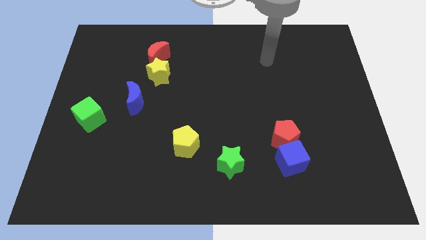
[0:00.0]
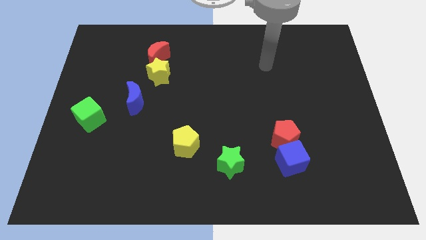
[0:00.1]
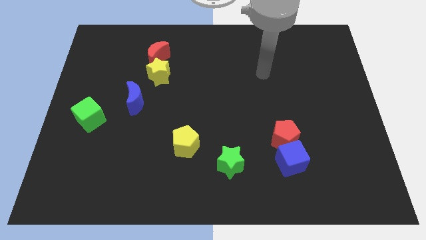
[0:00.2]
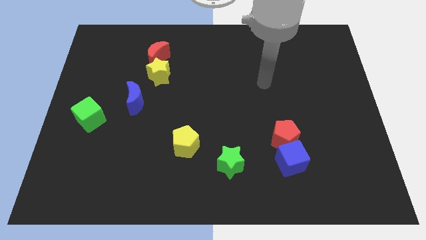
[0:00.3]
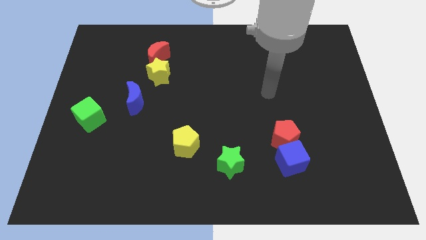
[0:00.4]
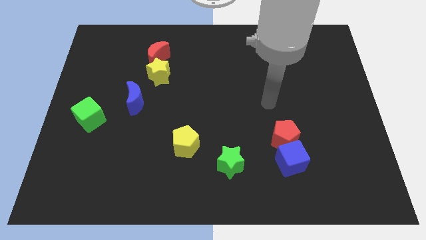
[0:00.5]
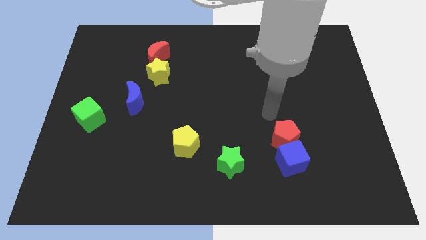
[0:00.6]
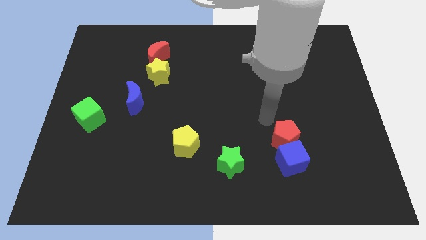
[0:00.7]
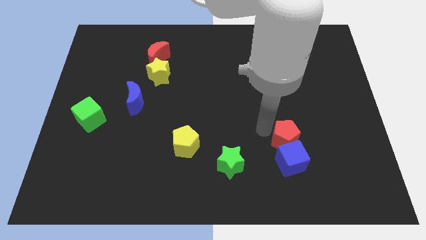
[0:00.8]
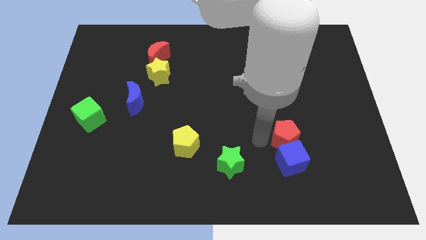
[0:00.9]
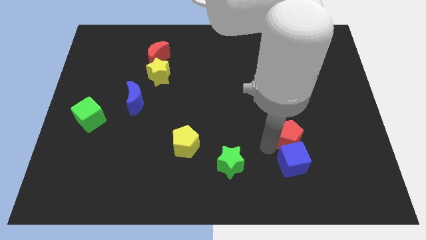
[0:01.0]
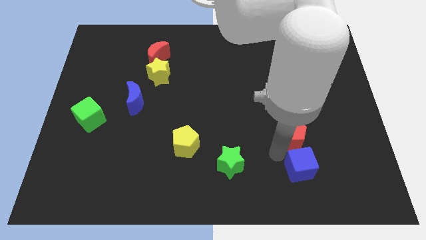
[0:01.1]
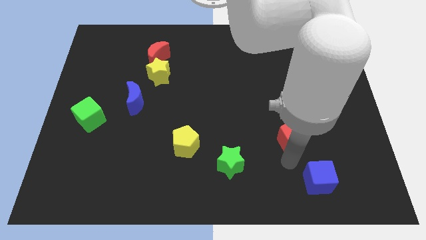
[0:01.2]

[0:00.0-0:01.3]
move the red pentagon away from the blue cube

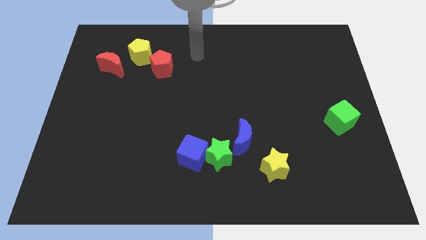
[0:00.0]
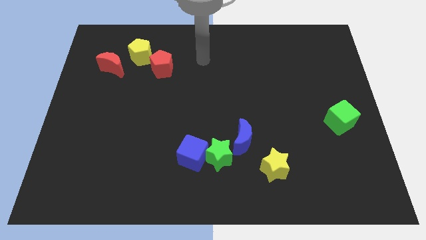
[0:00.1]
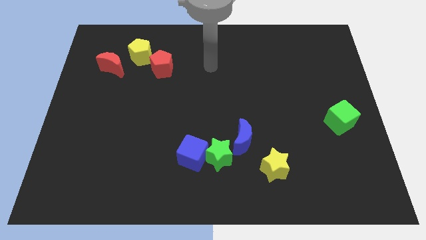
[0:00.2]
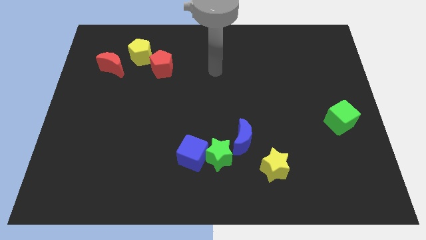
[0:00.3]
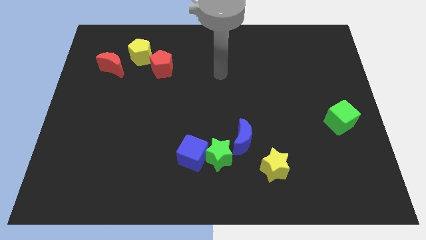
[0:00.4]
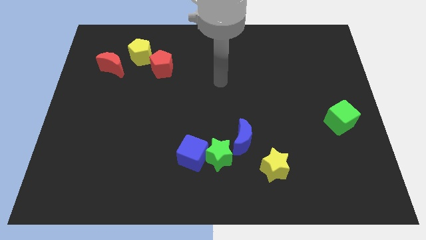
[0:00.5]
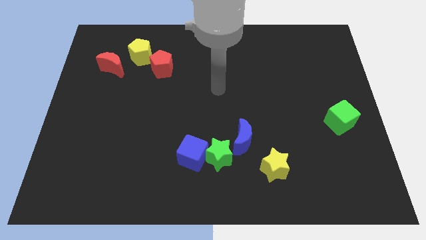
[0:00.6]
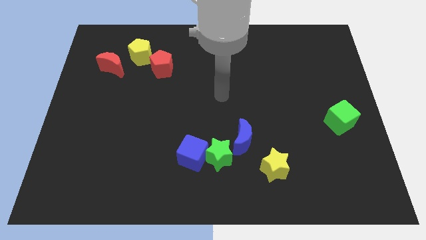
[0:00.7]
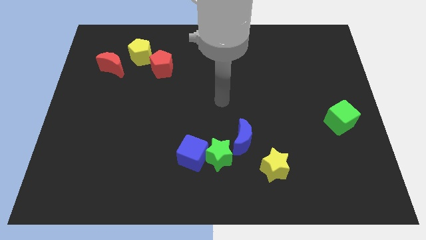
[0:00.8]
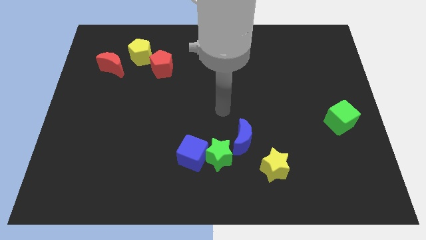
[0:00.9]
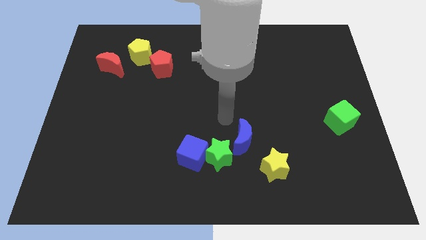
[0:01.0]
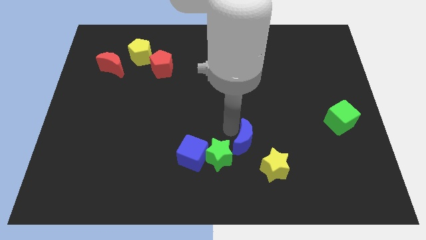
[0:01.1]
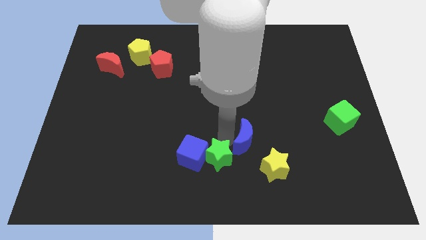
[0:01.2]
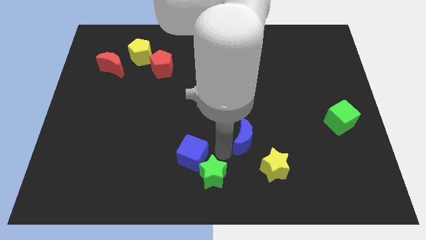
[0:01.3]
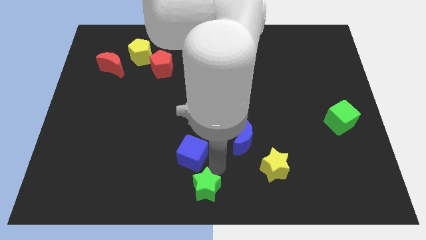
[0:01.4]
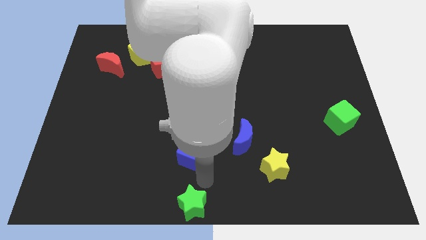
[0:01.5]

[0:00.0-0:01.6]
separate the blue cube from the green star

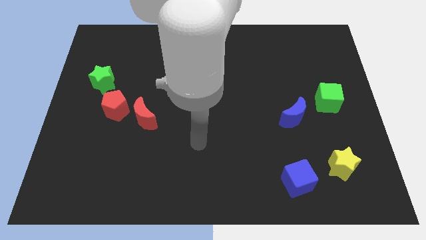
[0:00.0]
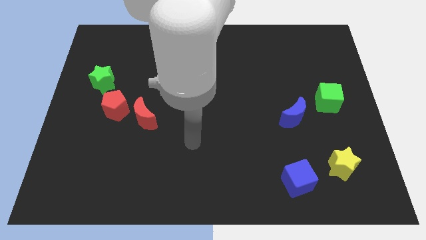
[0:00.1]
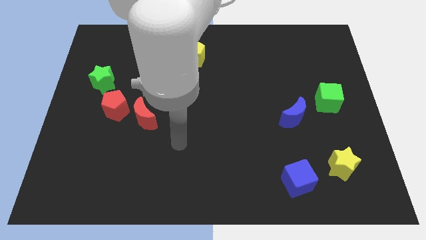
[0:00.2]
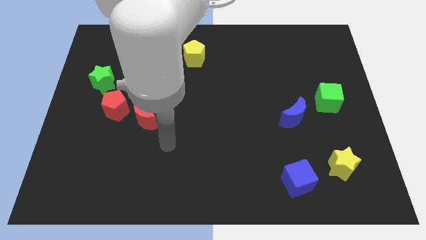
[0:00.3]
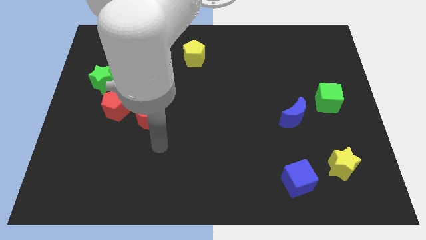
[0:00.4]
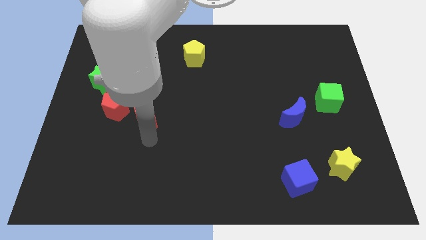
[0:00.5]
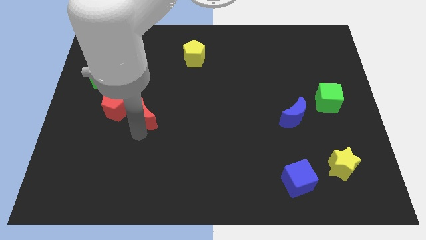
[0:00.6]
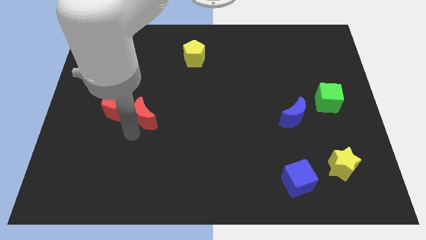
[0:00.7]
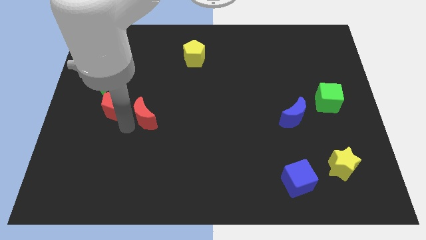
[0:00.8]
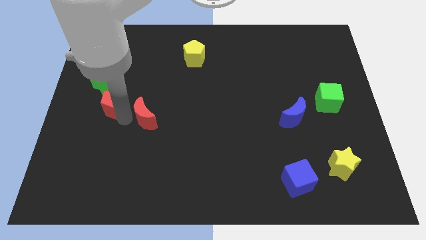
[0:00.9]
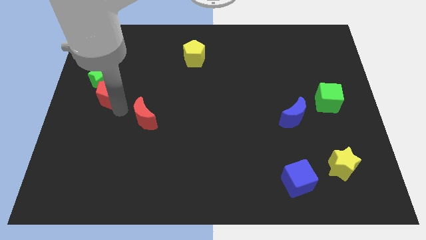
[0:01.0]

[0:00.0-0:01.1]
pull the red moon apart from the red pentagon

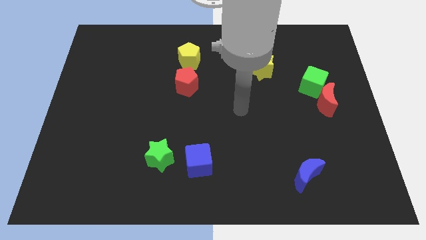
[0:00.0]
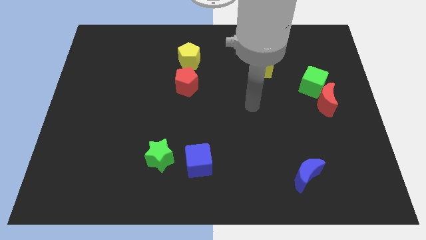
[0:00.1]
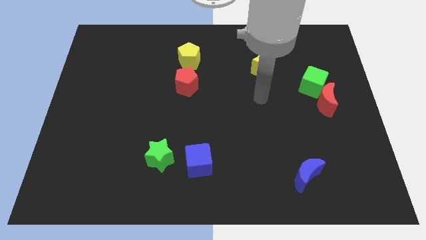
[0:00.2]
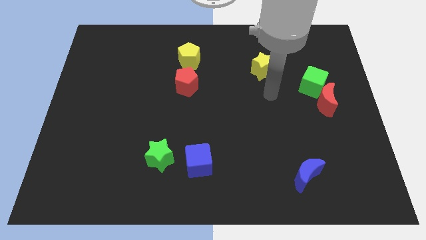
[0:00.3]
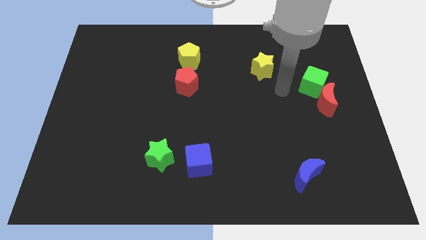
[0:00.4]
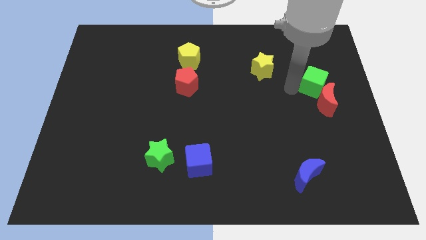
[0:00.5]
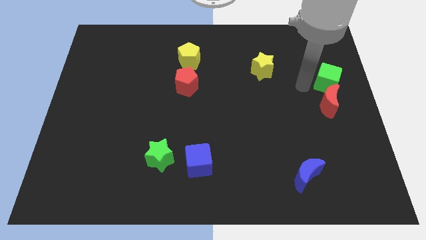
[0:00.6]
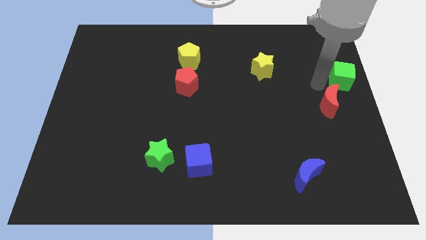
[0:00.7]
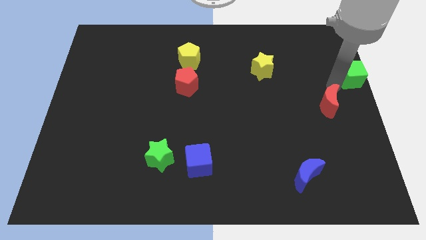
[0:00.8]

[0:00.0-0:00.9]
separate the red moon from the green cube

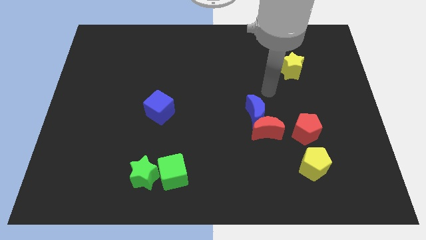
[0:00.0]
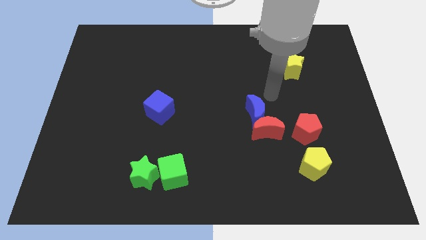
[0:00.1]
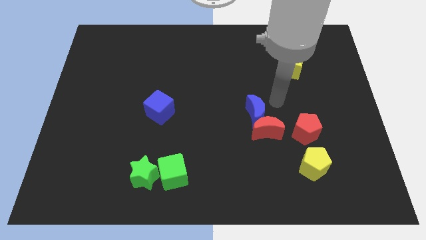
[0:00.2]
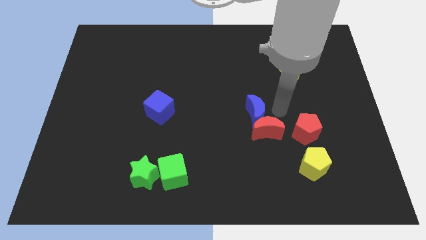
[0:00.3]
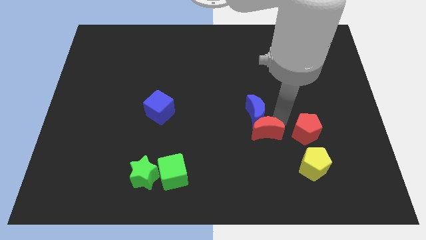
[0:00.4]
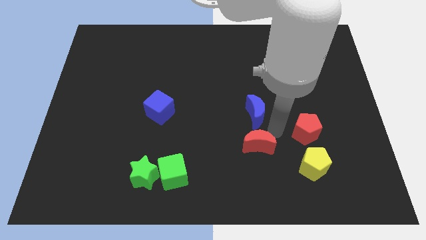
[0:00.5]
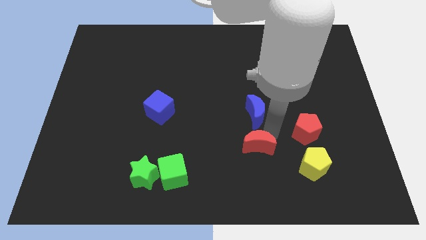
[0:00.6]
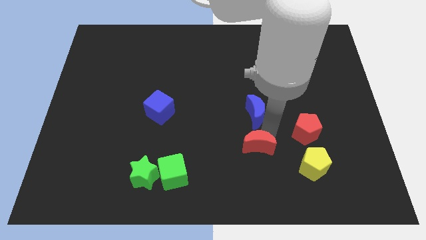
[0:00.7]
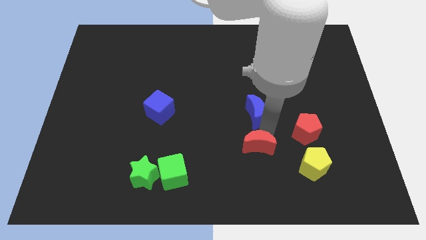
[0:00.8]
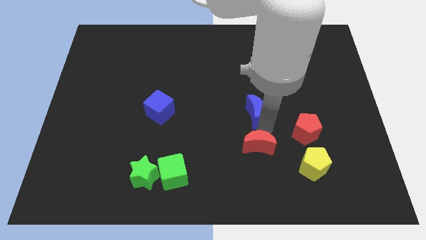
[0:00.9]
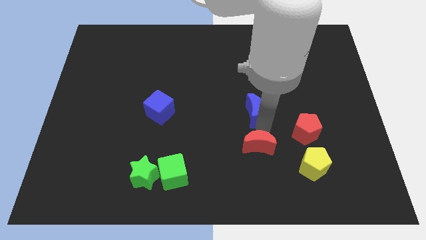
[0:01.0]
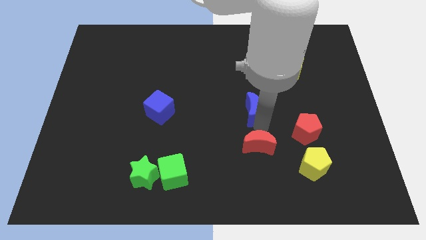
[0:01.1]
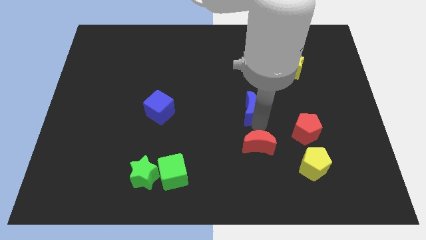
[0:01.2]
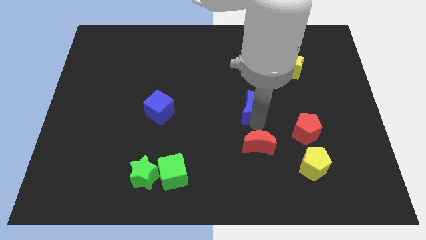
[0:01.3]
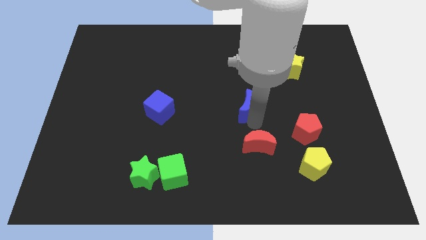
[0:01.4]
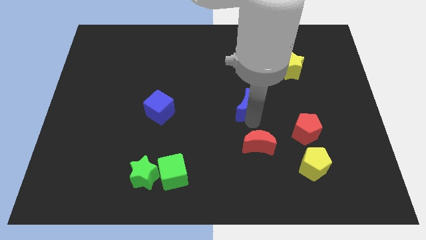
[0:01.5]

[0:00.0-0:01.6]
separate the blue moon from the red moon

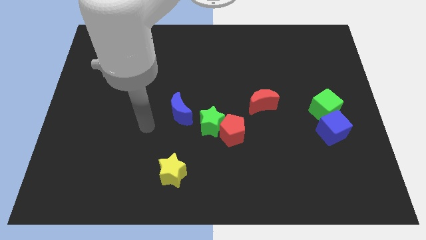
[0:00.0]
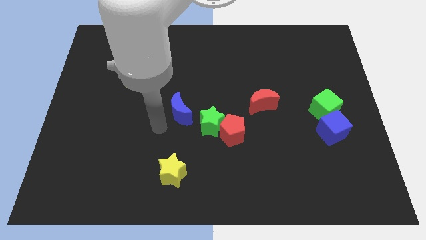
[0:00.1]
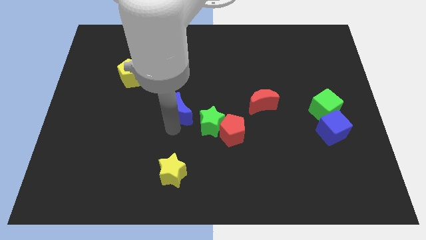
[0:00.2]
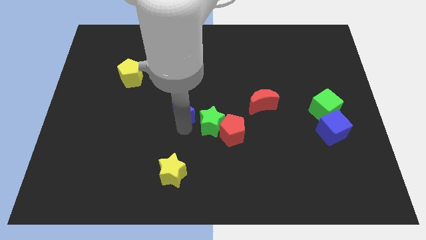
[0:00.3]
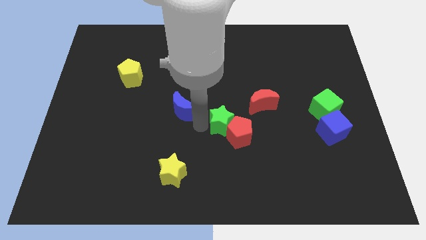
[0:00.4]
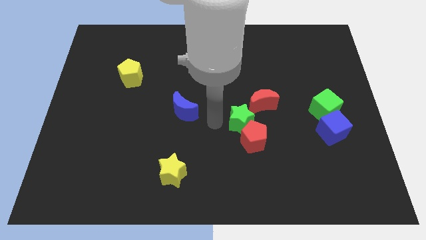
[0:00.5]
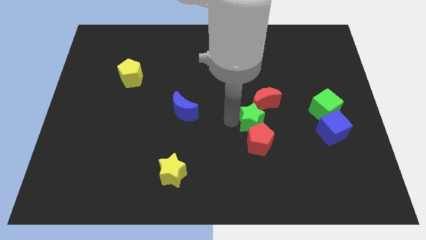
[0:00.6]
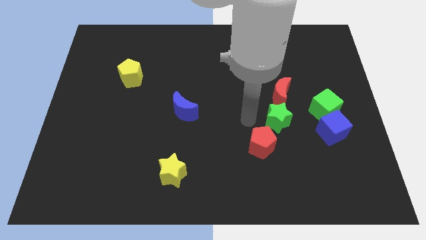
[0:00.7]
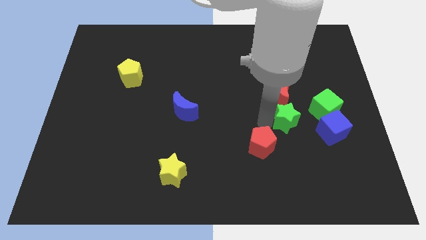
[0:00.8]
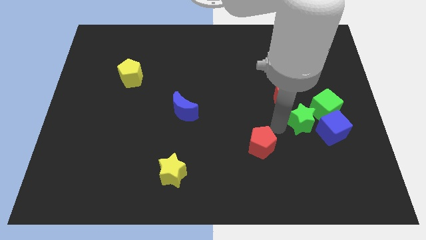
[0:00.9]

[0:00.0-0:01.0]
separate the red pentagon from the green star

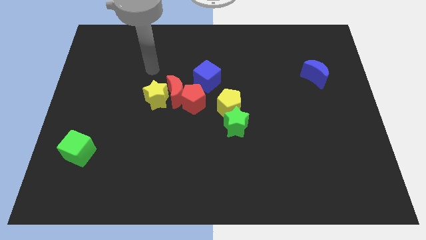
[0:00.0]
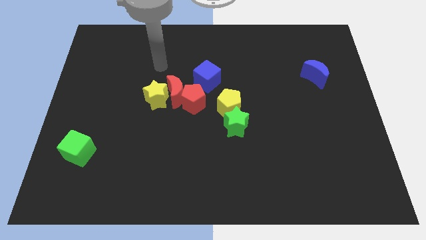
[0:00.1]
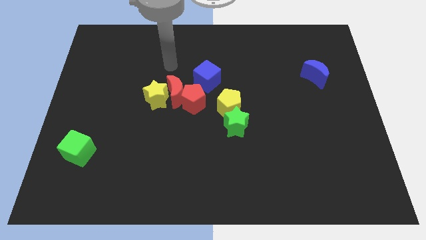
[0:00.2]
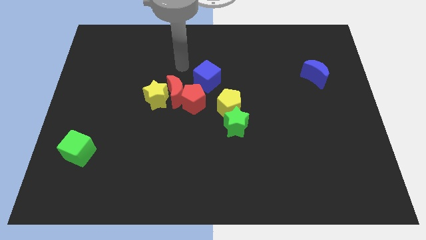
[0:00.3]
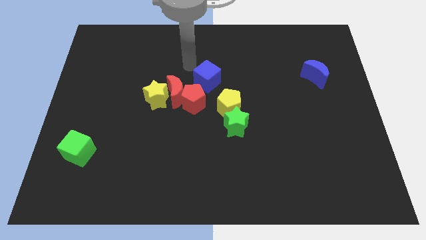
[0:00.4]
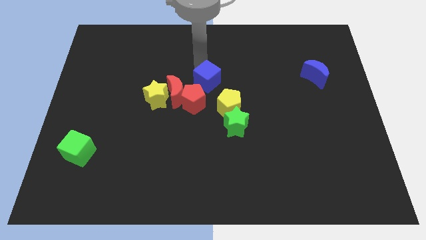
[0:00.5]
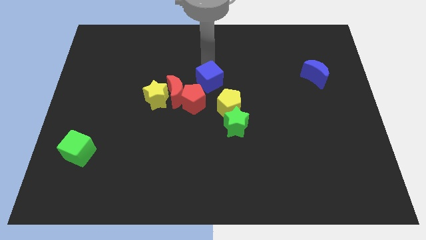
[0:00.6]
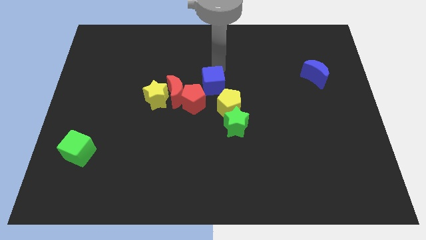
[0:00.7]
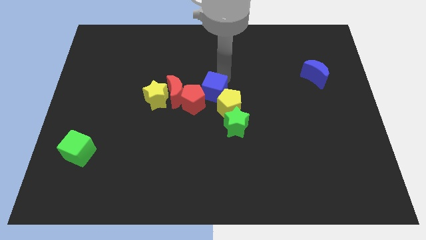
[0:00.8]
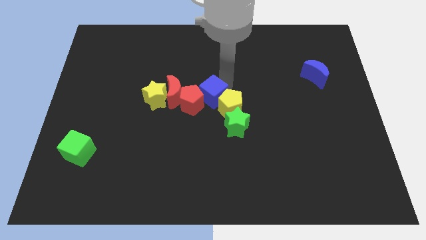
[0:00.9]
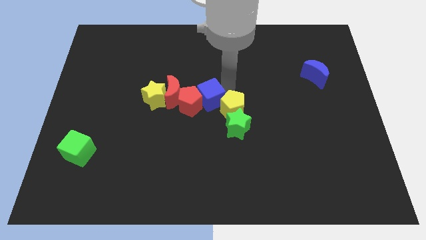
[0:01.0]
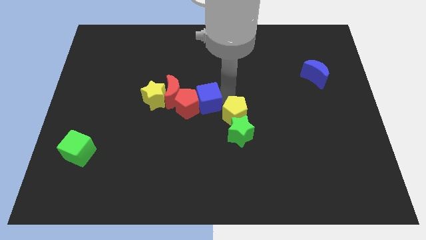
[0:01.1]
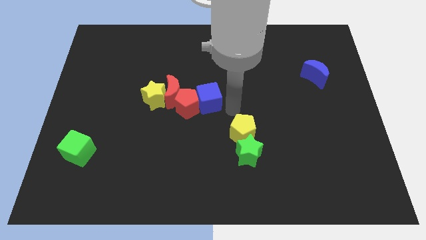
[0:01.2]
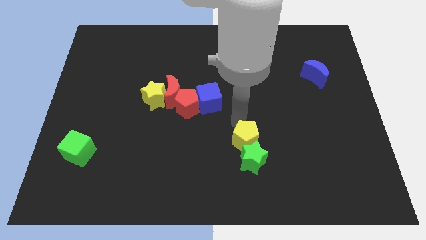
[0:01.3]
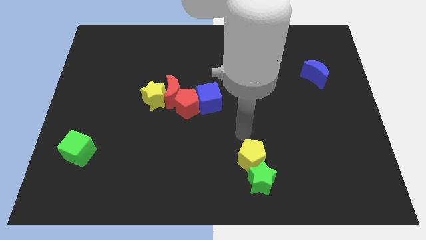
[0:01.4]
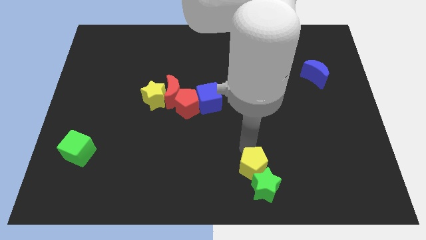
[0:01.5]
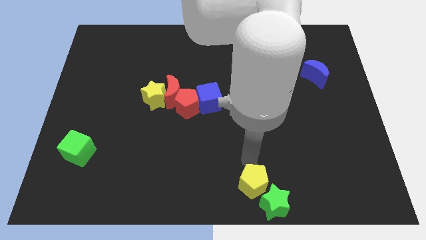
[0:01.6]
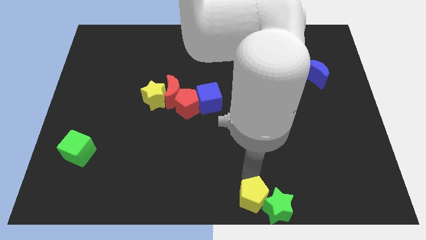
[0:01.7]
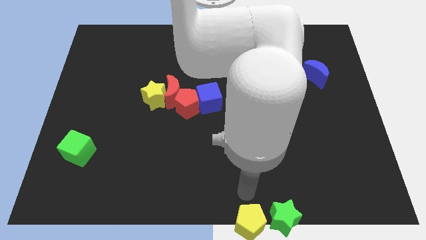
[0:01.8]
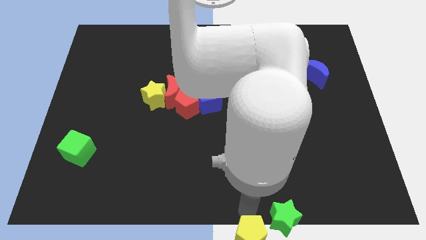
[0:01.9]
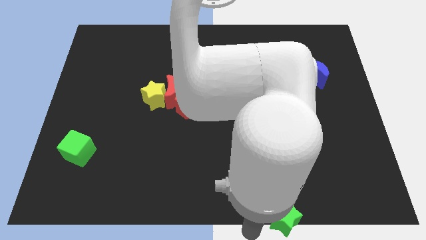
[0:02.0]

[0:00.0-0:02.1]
separate the green star from the yellow pentagon
